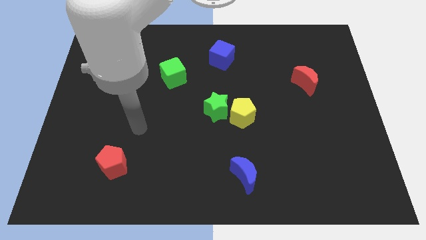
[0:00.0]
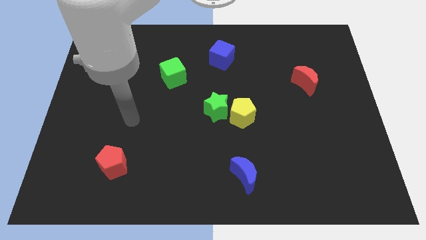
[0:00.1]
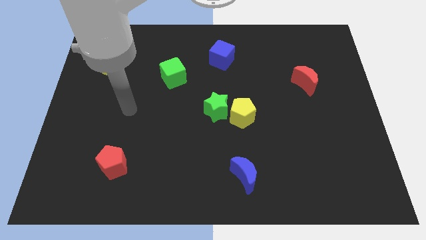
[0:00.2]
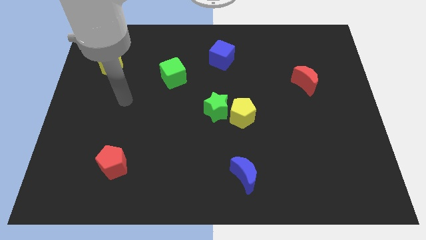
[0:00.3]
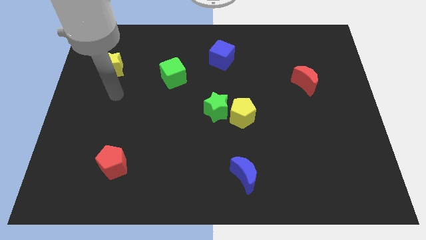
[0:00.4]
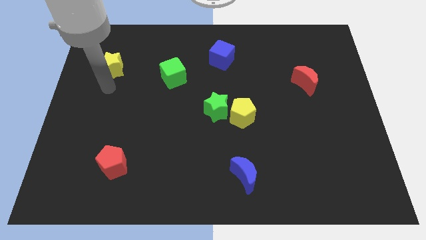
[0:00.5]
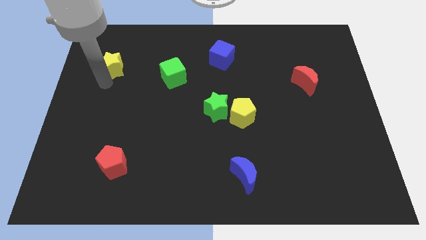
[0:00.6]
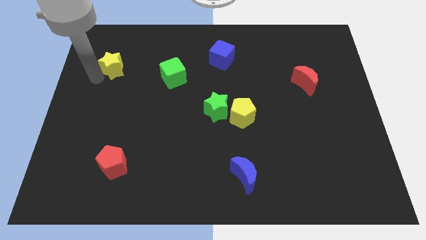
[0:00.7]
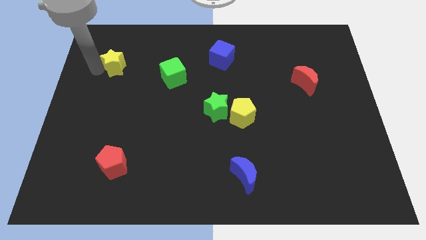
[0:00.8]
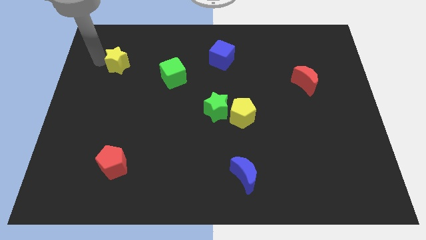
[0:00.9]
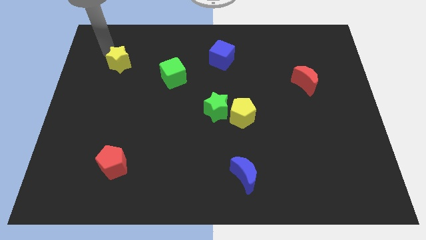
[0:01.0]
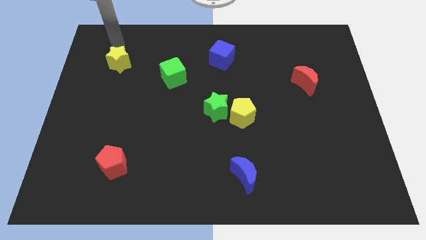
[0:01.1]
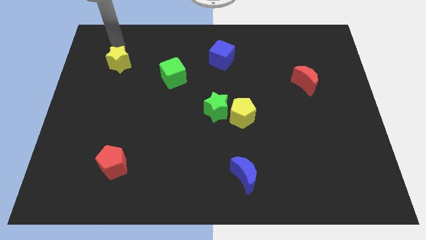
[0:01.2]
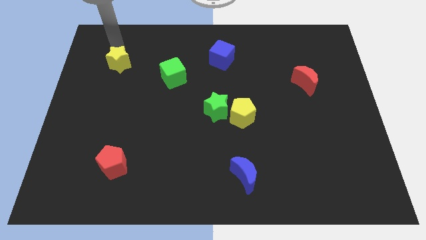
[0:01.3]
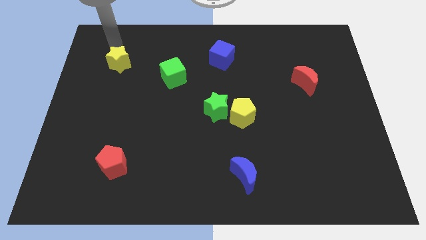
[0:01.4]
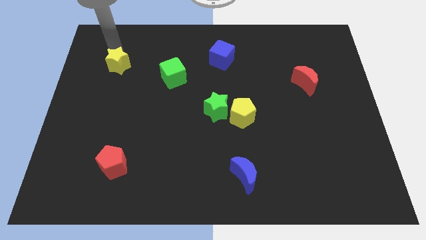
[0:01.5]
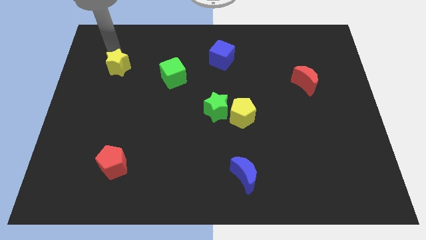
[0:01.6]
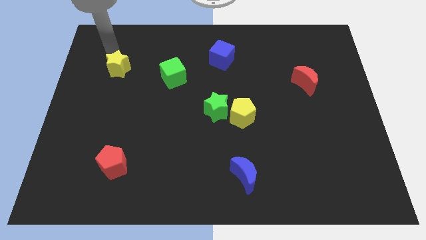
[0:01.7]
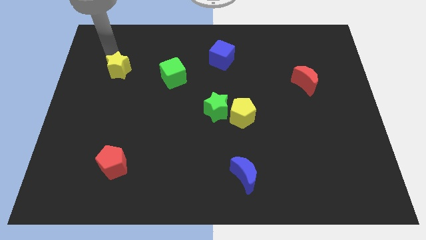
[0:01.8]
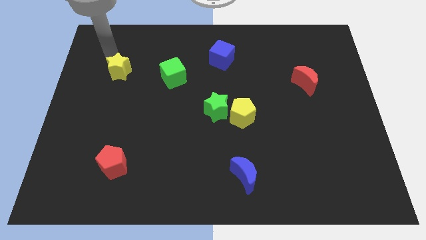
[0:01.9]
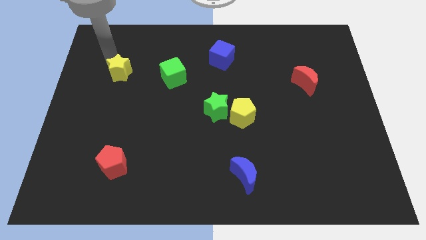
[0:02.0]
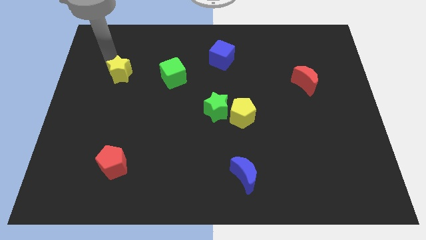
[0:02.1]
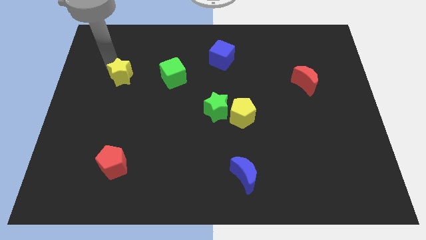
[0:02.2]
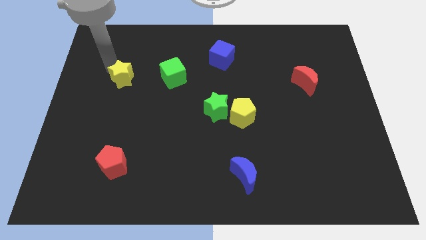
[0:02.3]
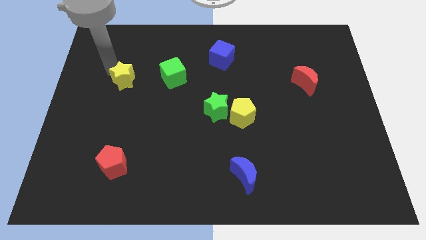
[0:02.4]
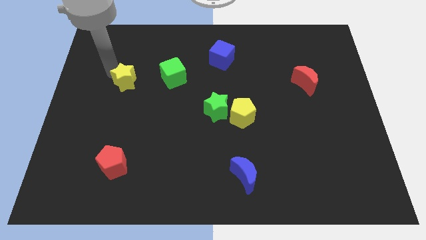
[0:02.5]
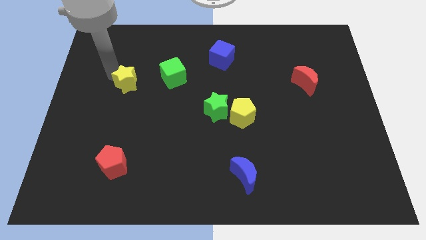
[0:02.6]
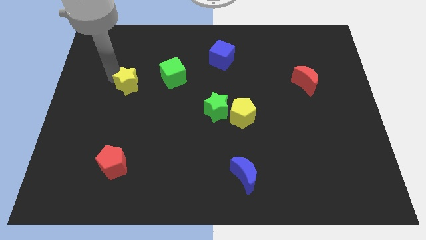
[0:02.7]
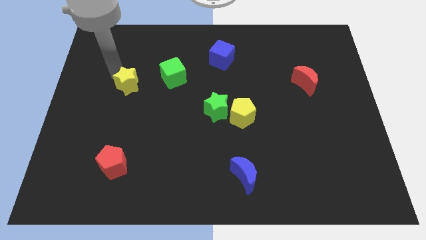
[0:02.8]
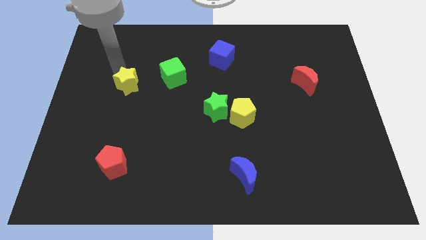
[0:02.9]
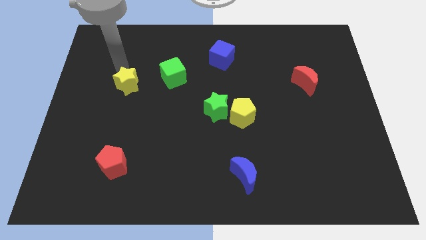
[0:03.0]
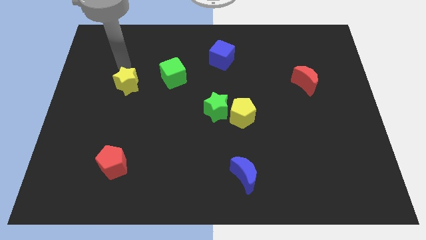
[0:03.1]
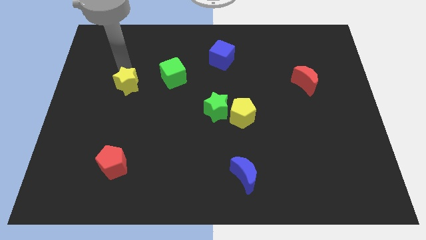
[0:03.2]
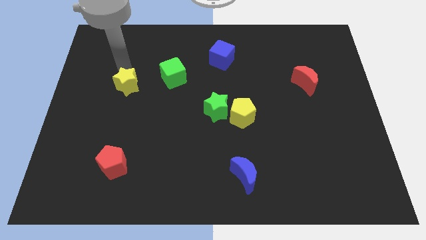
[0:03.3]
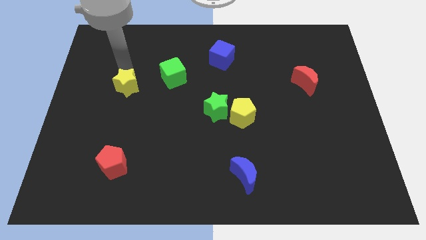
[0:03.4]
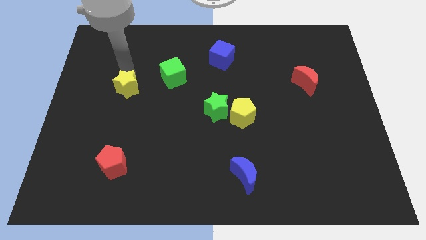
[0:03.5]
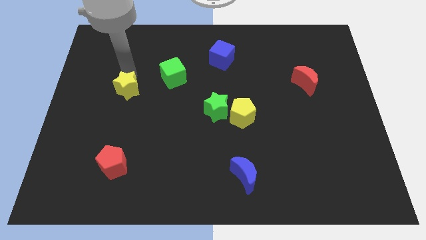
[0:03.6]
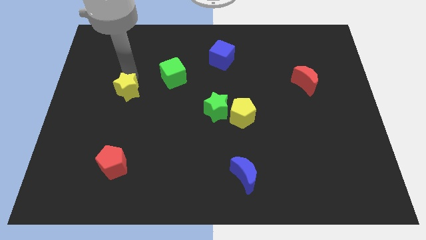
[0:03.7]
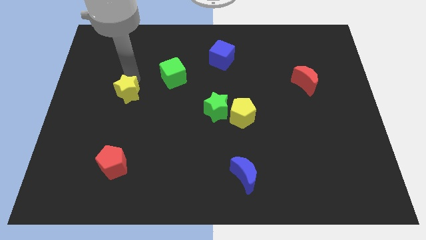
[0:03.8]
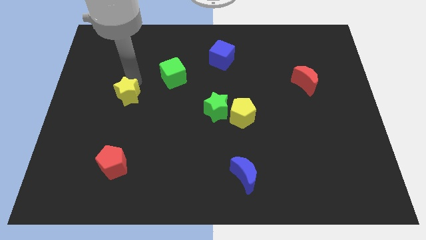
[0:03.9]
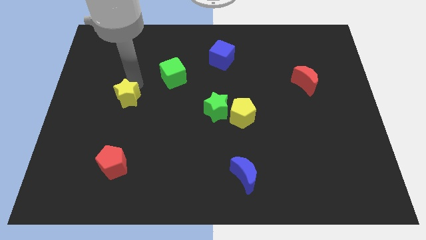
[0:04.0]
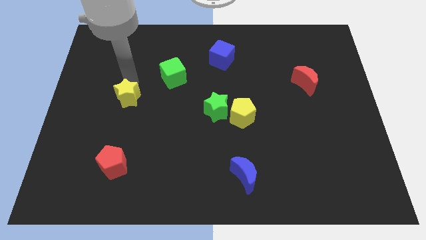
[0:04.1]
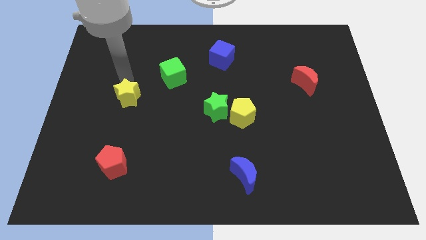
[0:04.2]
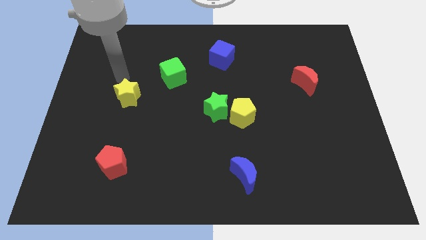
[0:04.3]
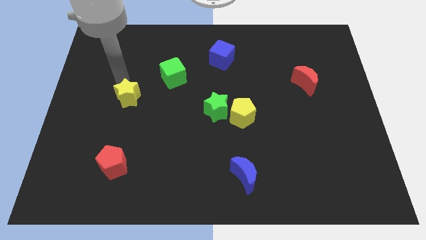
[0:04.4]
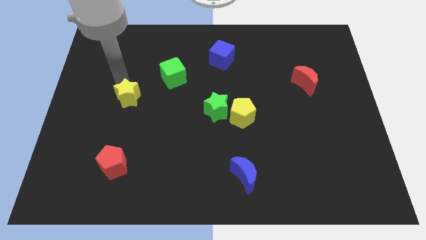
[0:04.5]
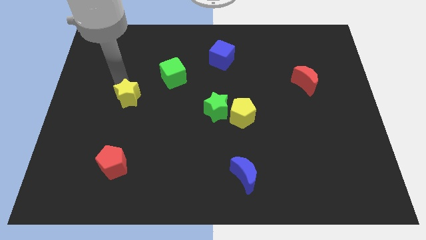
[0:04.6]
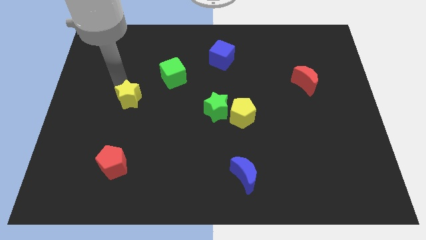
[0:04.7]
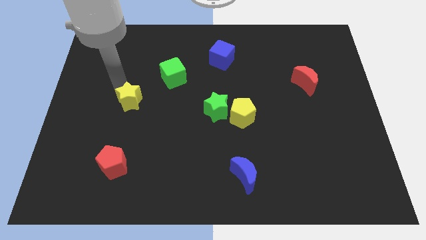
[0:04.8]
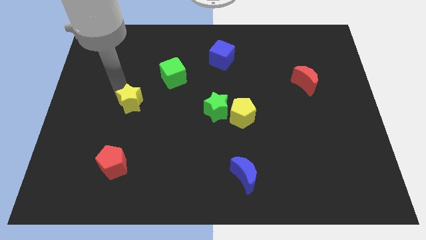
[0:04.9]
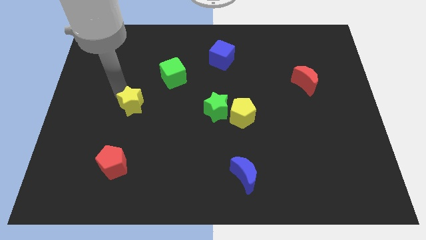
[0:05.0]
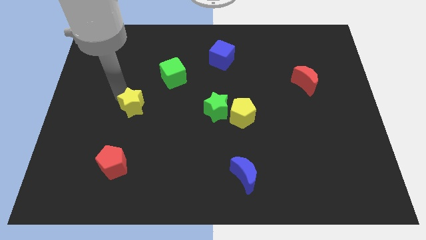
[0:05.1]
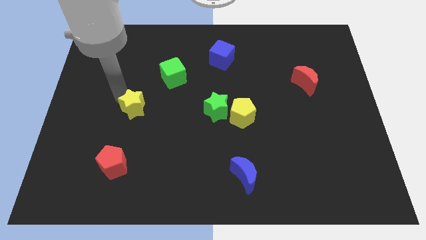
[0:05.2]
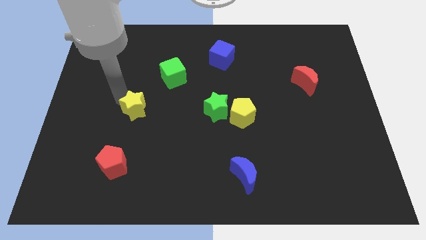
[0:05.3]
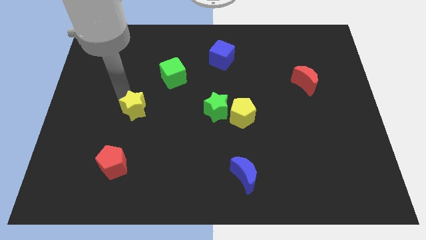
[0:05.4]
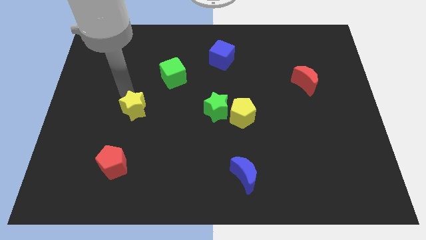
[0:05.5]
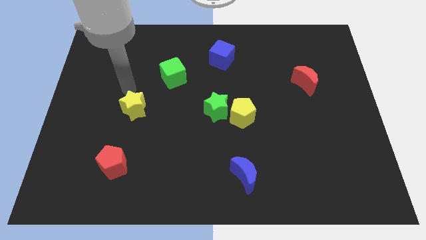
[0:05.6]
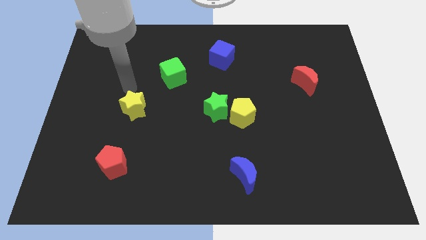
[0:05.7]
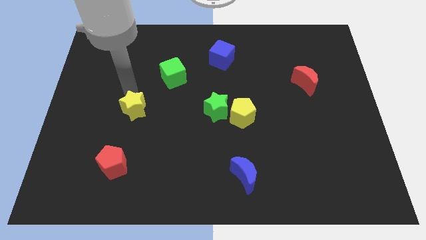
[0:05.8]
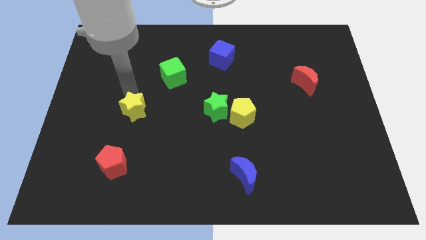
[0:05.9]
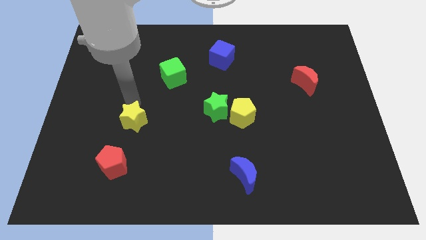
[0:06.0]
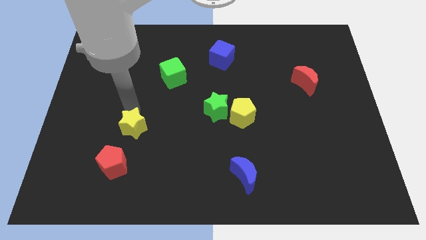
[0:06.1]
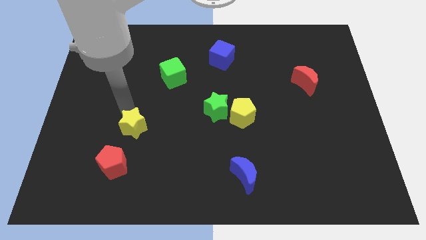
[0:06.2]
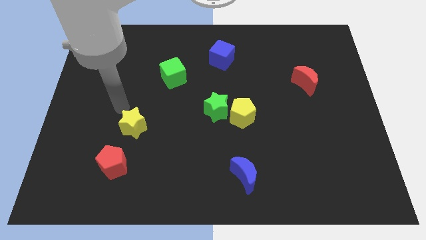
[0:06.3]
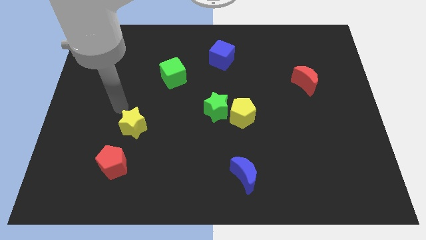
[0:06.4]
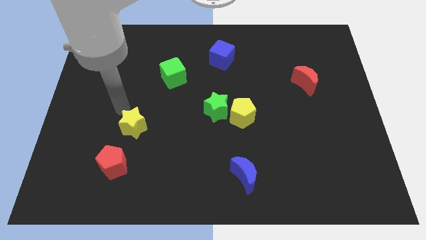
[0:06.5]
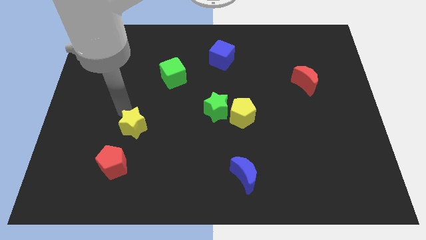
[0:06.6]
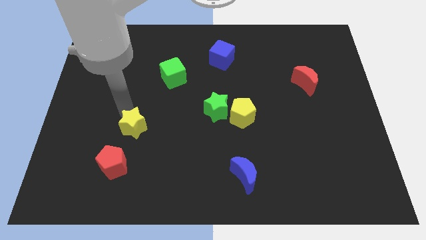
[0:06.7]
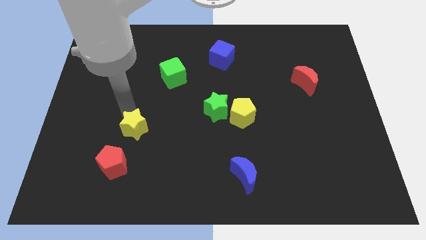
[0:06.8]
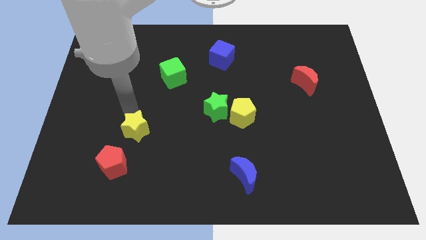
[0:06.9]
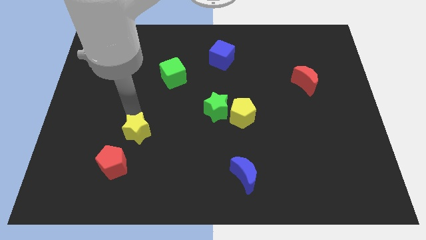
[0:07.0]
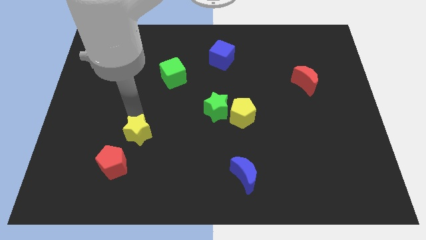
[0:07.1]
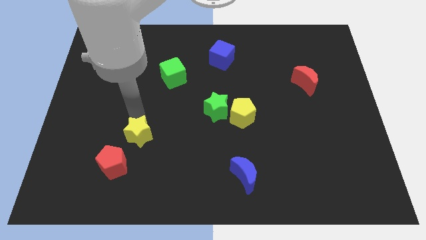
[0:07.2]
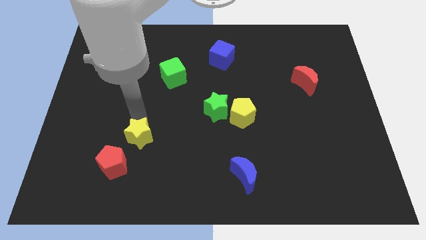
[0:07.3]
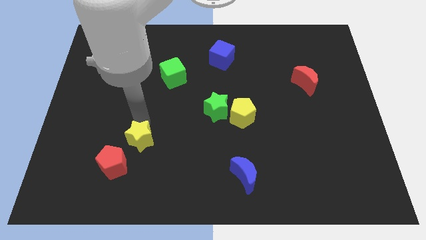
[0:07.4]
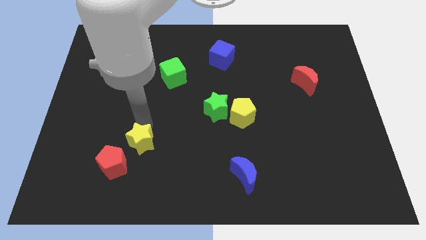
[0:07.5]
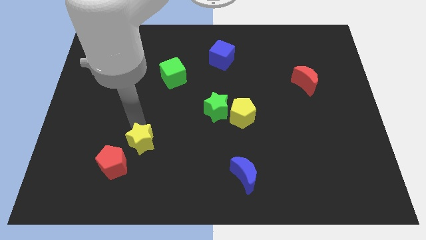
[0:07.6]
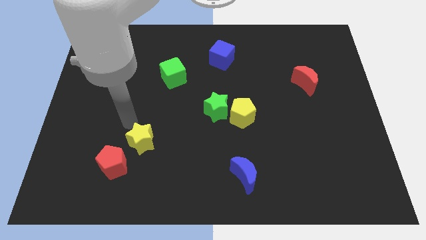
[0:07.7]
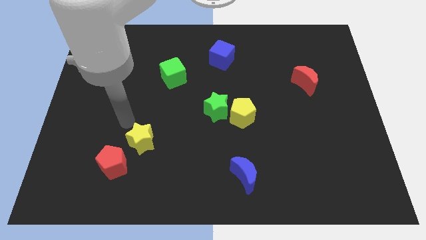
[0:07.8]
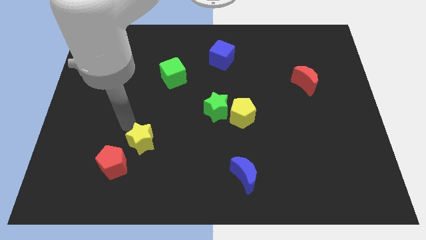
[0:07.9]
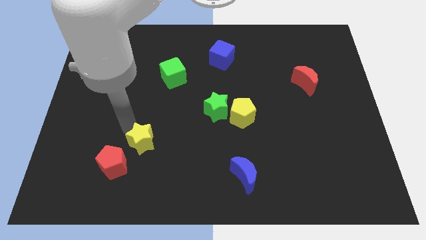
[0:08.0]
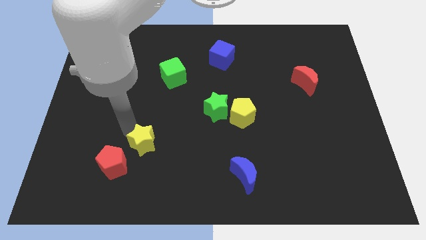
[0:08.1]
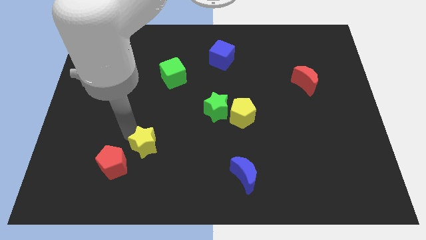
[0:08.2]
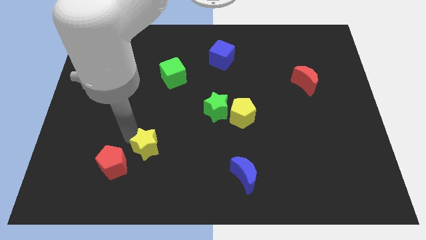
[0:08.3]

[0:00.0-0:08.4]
push the yellow star to the right of the red pentagon
